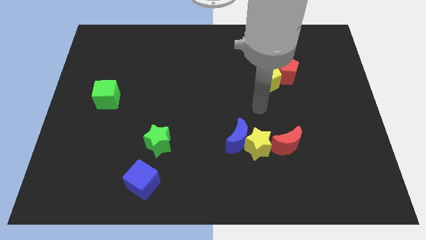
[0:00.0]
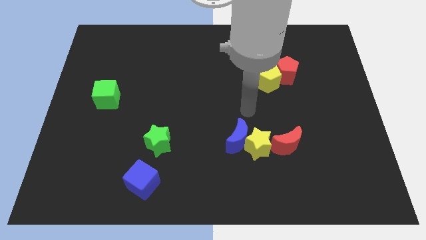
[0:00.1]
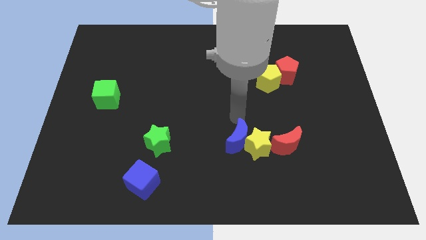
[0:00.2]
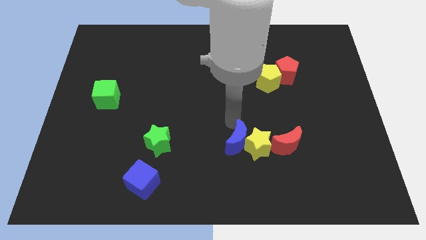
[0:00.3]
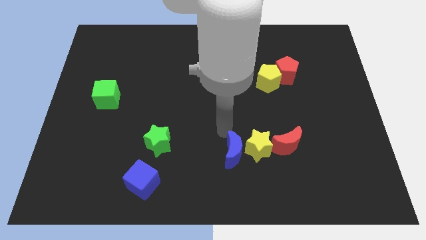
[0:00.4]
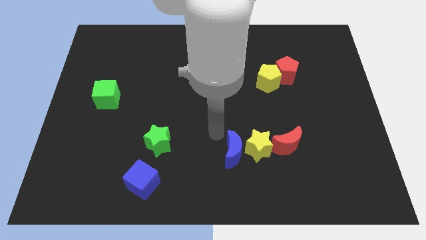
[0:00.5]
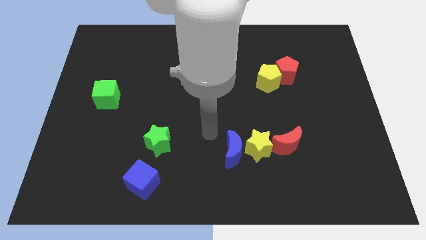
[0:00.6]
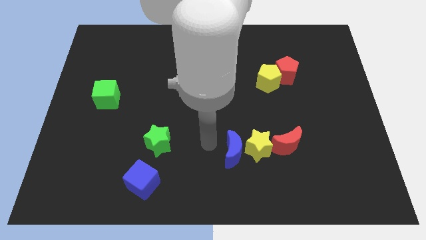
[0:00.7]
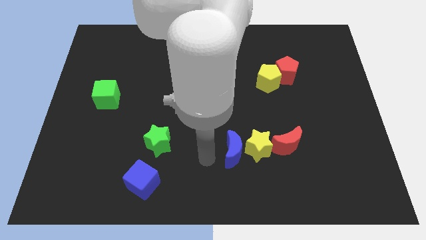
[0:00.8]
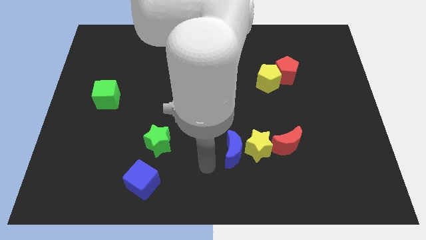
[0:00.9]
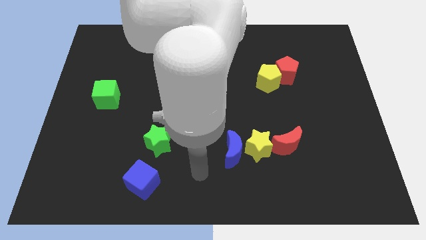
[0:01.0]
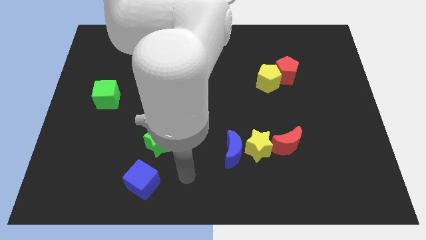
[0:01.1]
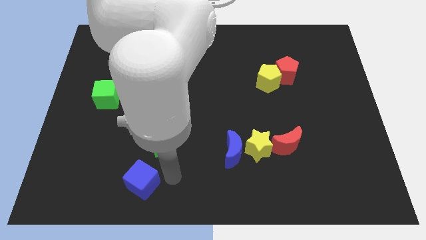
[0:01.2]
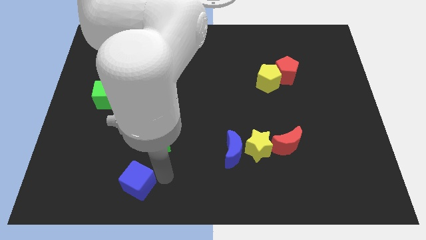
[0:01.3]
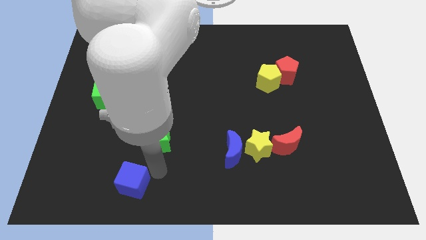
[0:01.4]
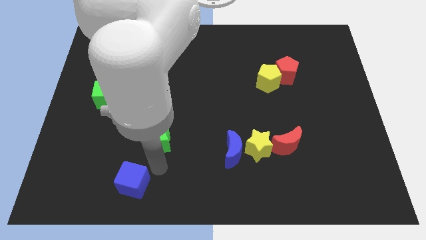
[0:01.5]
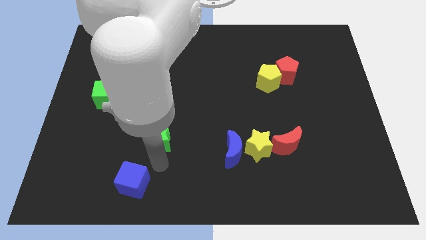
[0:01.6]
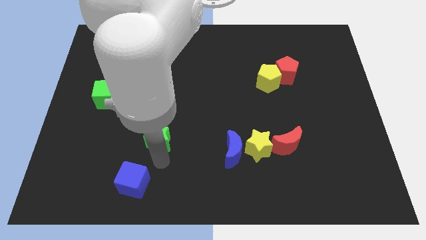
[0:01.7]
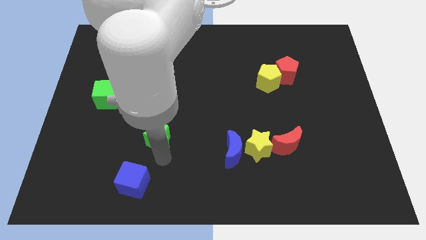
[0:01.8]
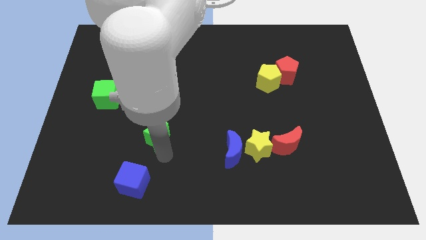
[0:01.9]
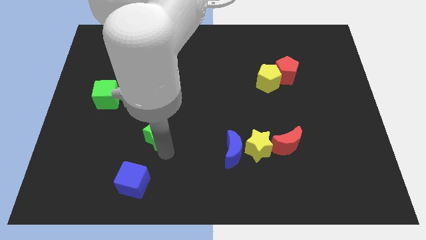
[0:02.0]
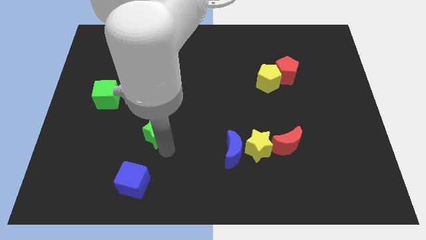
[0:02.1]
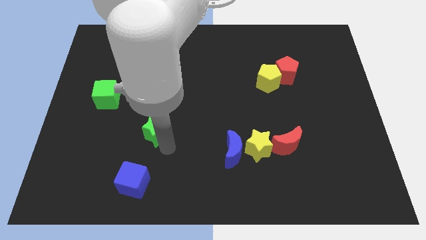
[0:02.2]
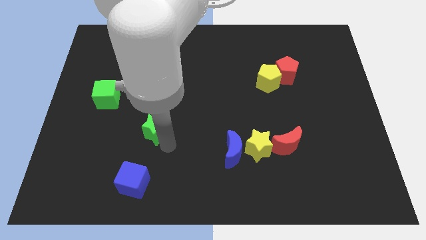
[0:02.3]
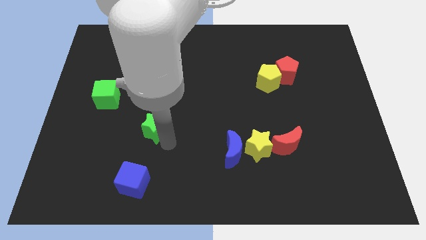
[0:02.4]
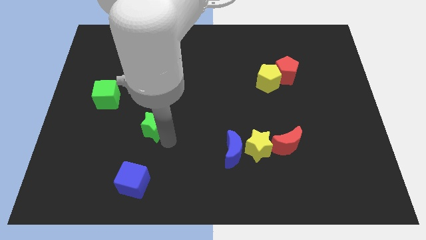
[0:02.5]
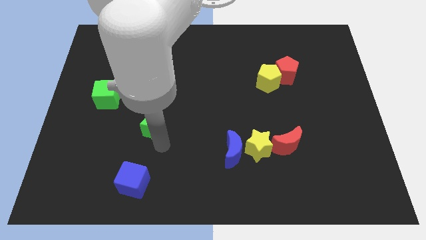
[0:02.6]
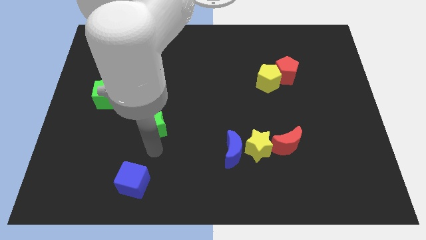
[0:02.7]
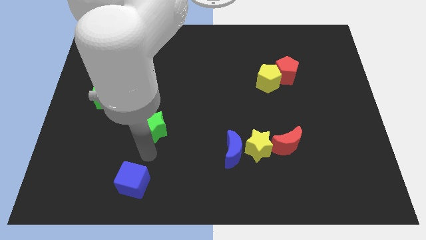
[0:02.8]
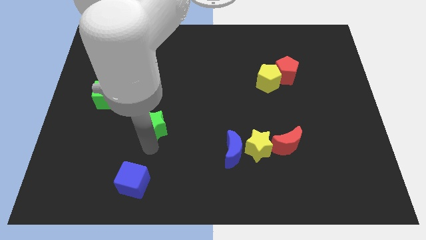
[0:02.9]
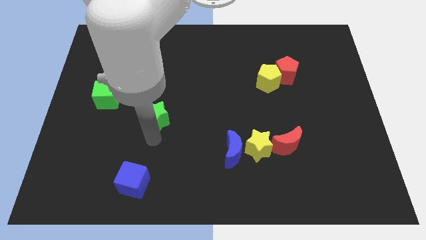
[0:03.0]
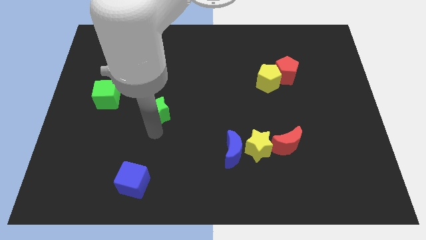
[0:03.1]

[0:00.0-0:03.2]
slide the green star upwards a little bit

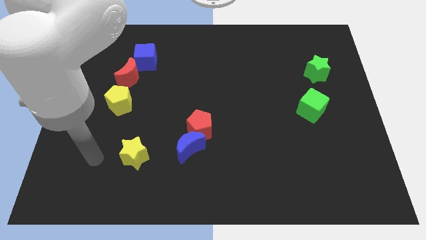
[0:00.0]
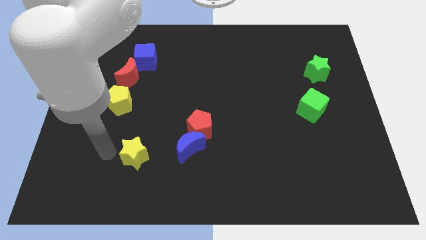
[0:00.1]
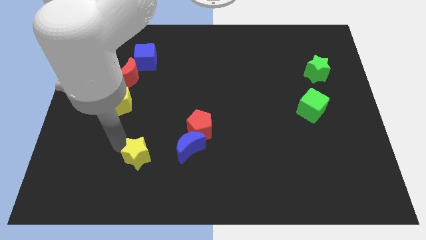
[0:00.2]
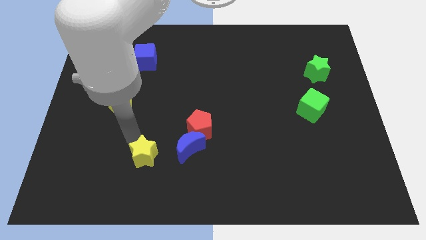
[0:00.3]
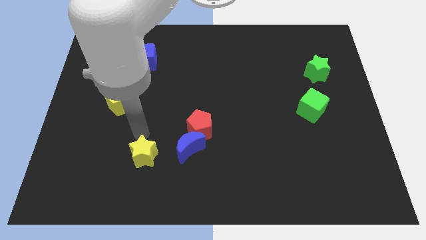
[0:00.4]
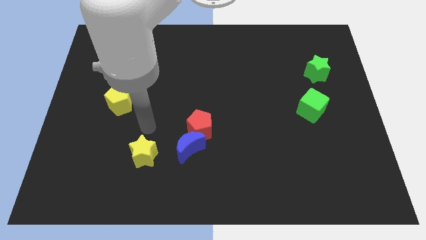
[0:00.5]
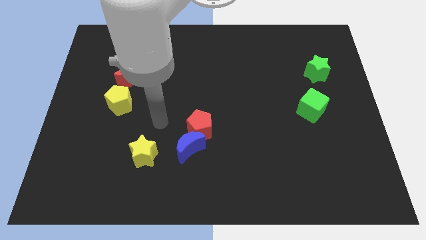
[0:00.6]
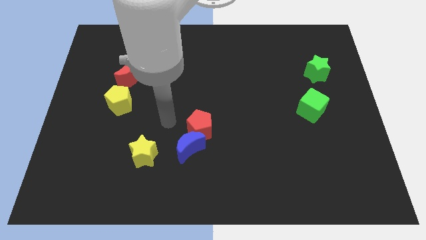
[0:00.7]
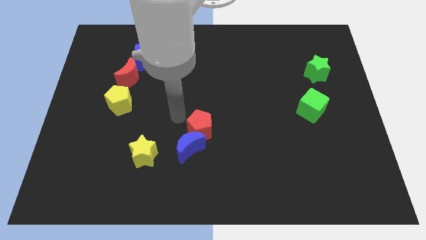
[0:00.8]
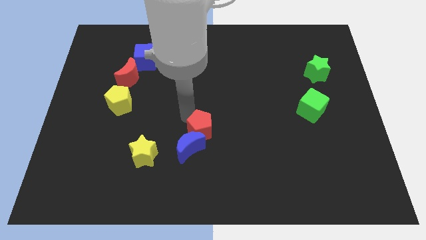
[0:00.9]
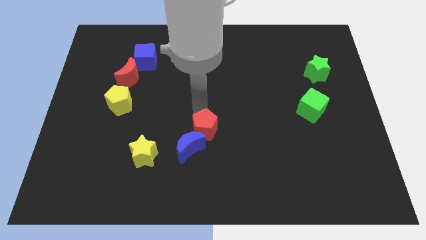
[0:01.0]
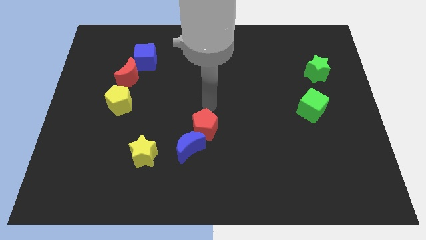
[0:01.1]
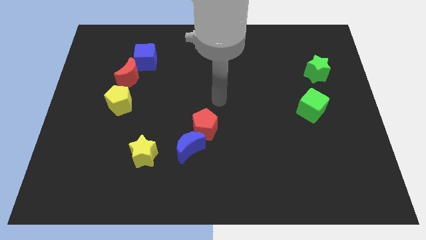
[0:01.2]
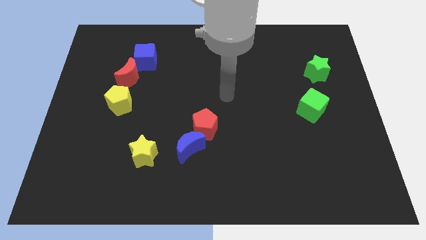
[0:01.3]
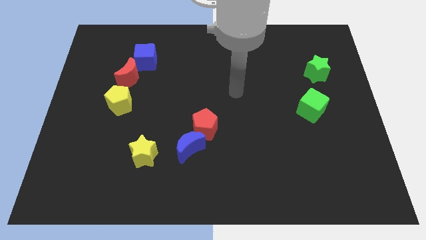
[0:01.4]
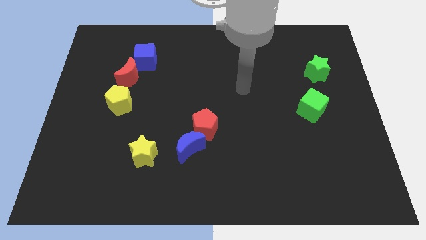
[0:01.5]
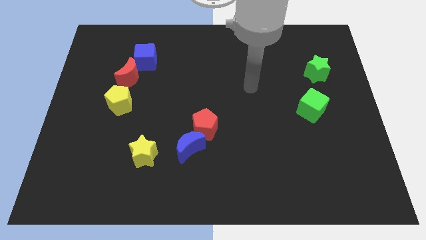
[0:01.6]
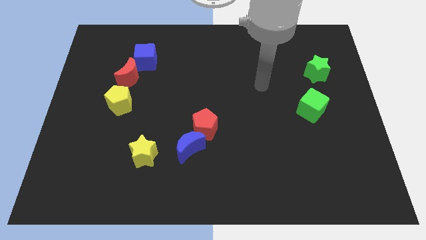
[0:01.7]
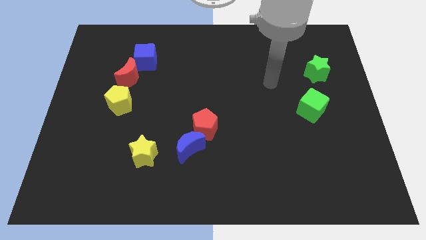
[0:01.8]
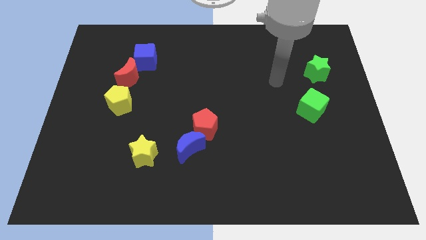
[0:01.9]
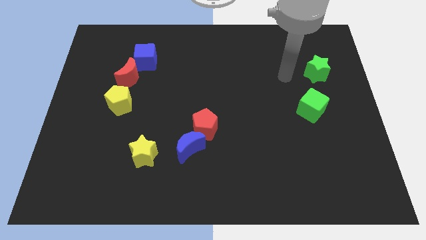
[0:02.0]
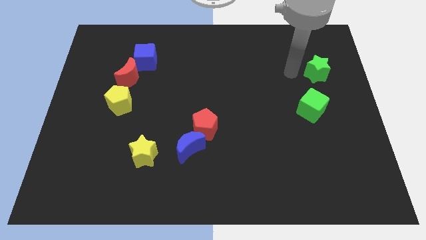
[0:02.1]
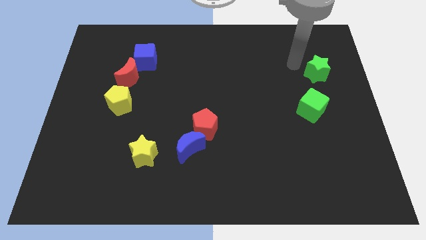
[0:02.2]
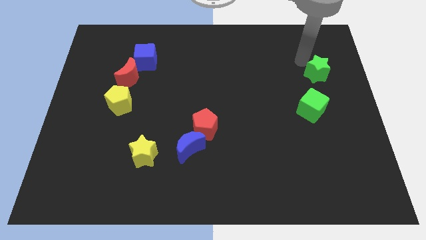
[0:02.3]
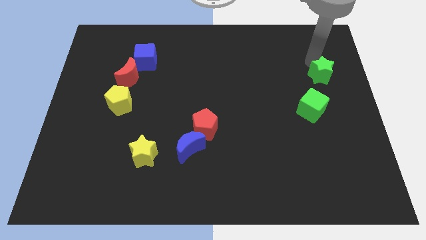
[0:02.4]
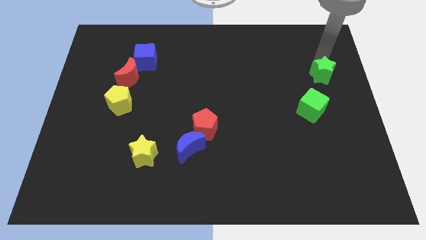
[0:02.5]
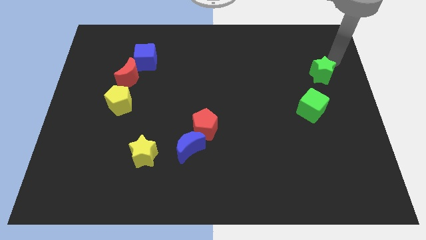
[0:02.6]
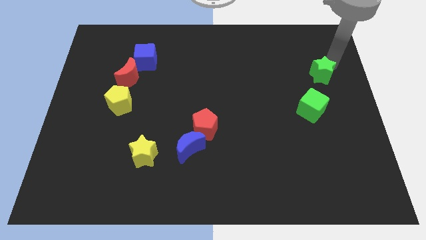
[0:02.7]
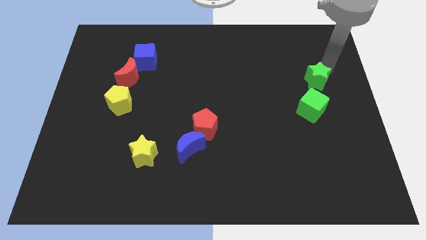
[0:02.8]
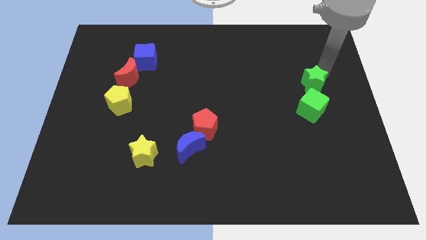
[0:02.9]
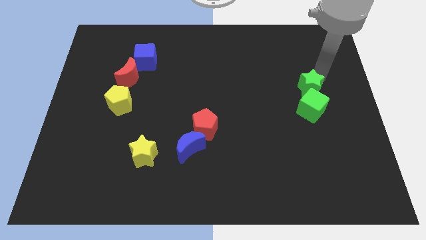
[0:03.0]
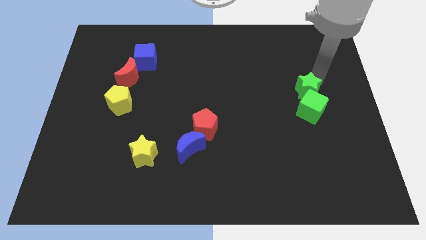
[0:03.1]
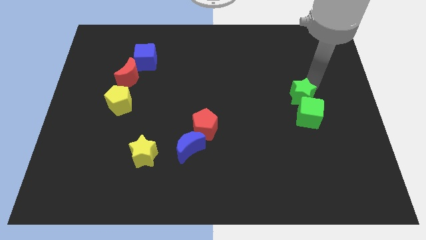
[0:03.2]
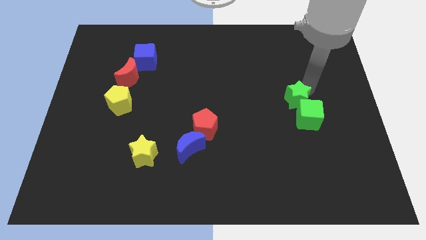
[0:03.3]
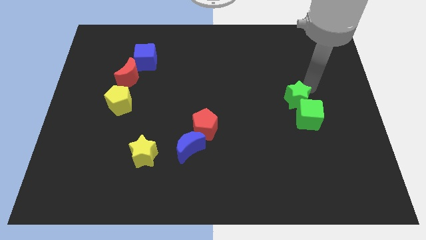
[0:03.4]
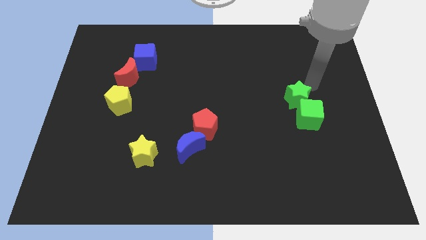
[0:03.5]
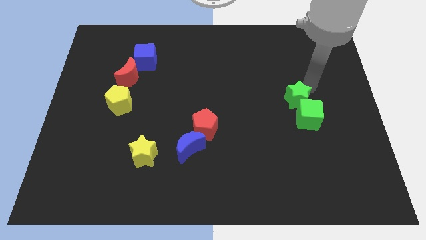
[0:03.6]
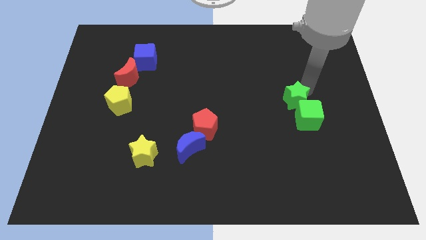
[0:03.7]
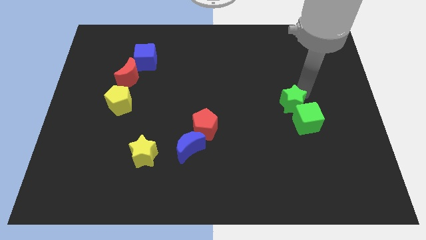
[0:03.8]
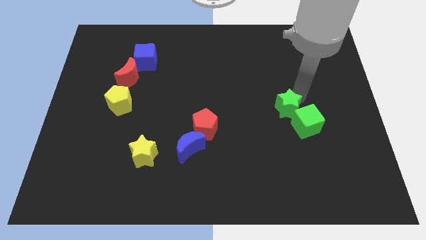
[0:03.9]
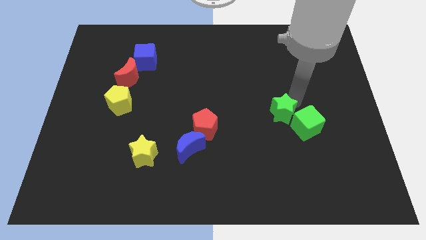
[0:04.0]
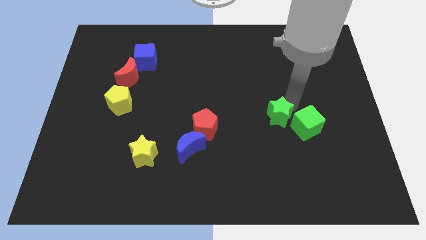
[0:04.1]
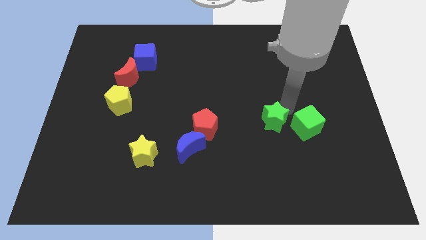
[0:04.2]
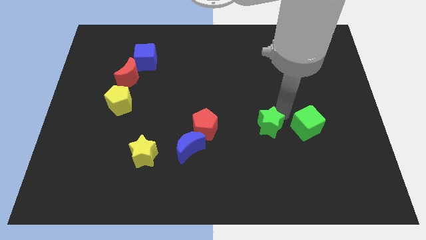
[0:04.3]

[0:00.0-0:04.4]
push the green star down and left

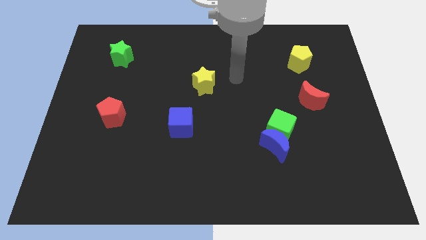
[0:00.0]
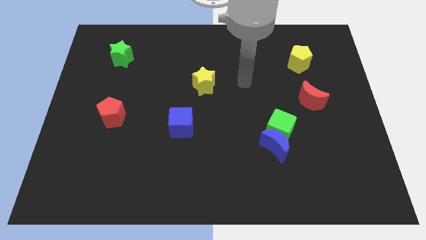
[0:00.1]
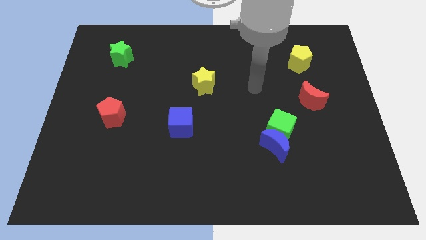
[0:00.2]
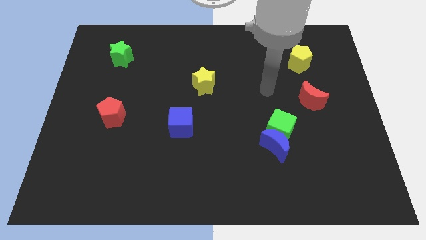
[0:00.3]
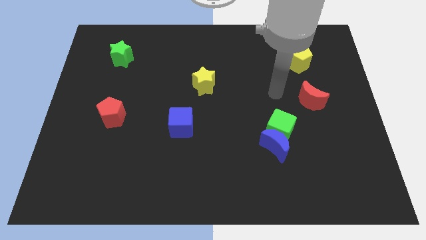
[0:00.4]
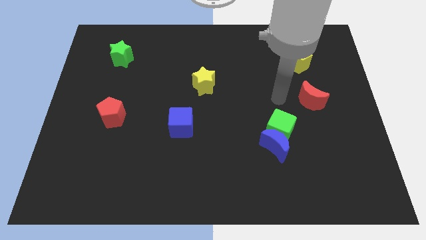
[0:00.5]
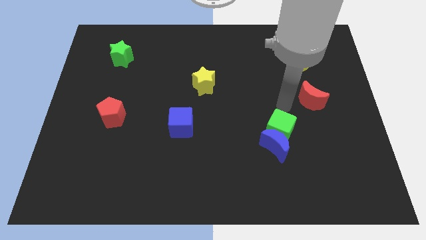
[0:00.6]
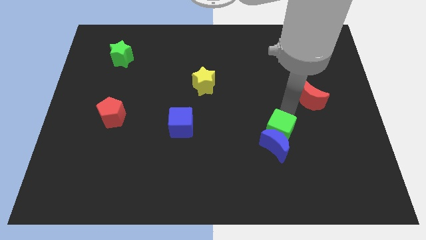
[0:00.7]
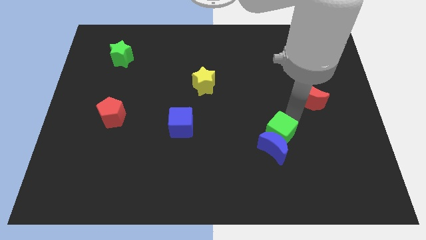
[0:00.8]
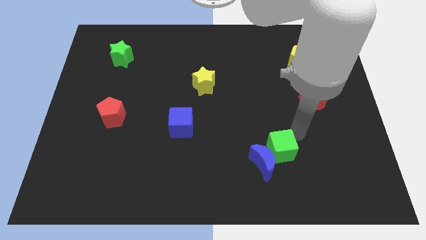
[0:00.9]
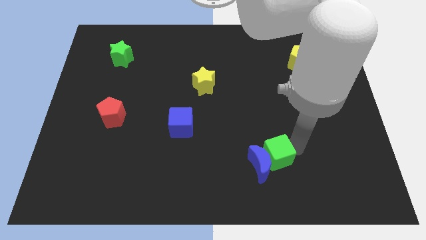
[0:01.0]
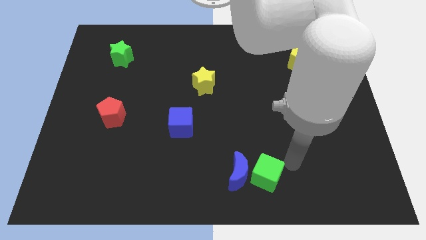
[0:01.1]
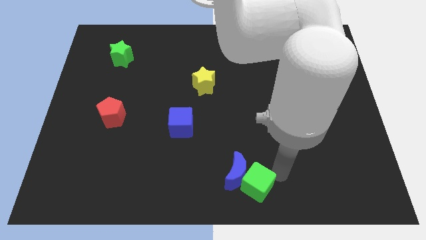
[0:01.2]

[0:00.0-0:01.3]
slightly slide the blue moon left
